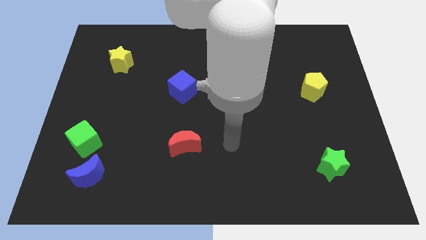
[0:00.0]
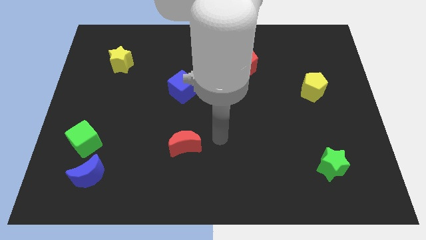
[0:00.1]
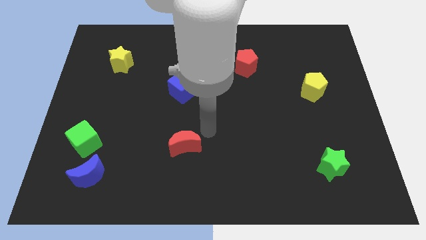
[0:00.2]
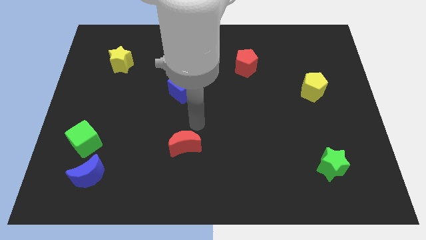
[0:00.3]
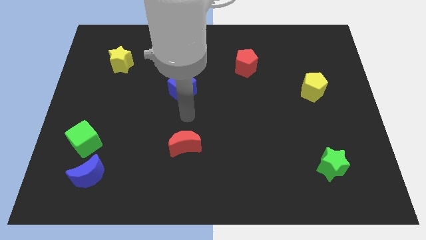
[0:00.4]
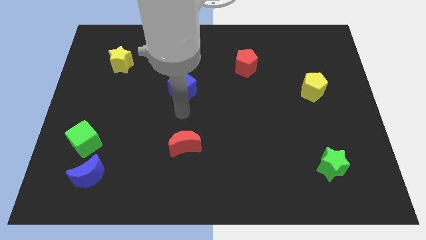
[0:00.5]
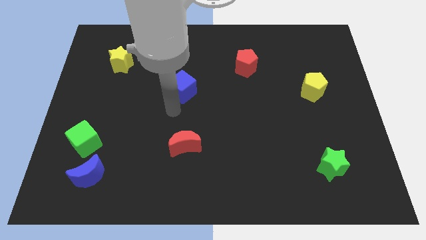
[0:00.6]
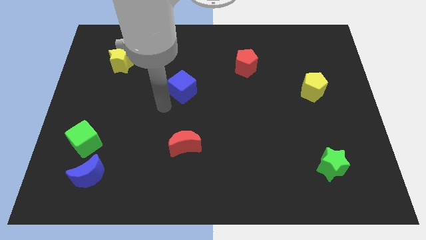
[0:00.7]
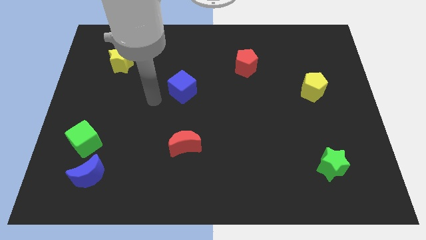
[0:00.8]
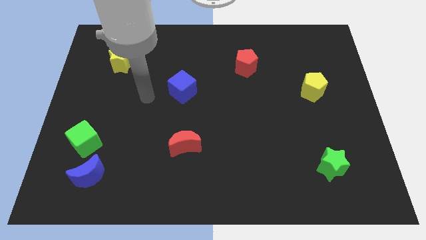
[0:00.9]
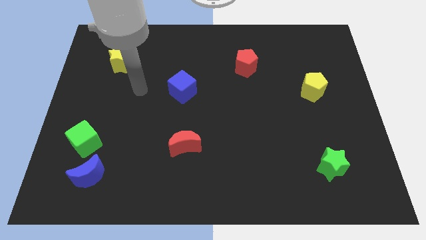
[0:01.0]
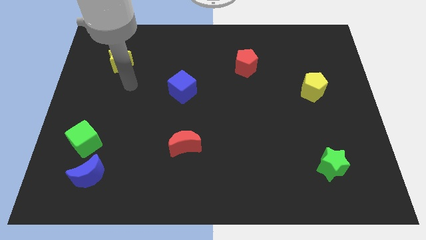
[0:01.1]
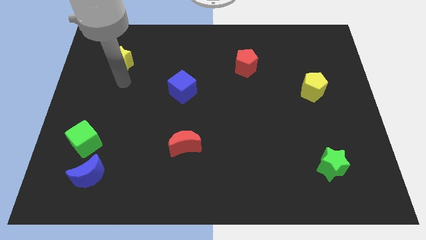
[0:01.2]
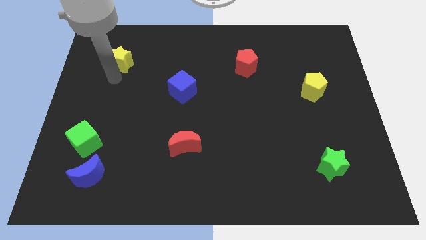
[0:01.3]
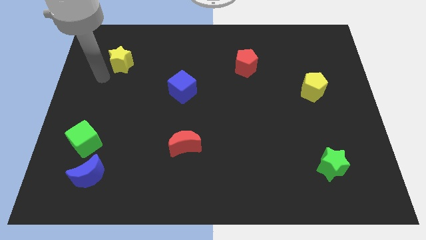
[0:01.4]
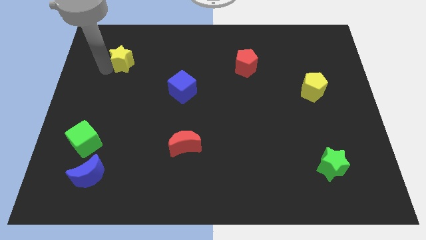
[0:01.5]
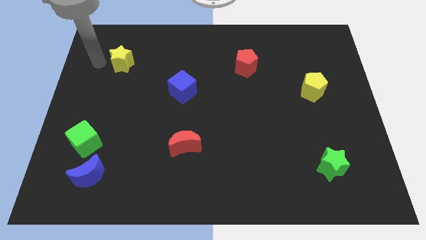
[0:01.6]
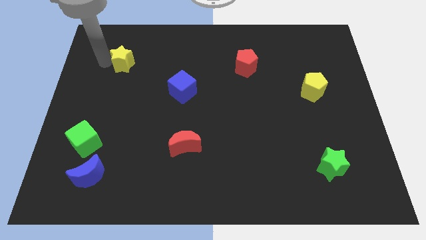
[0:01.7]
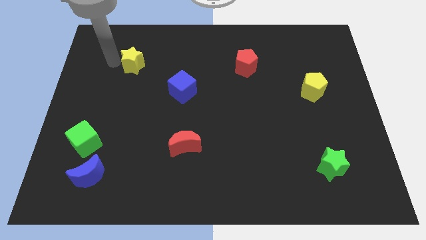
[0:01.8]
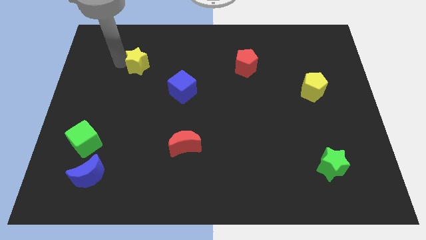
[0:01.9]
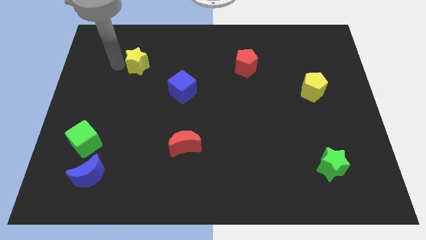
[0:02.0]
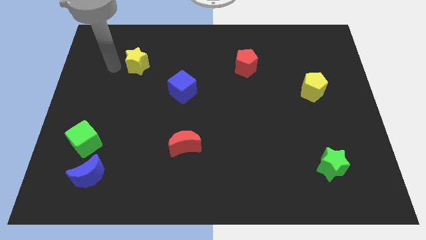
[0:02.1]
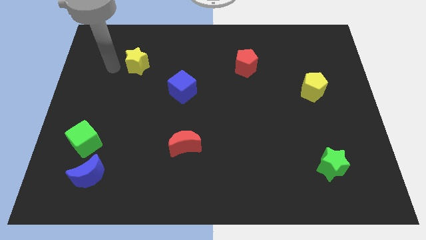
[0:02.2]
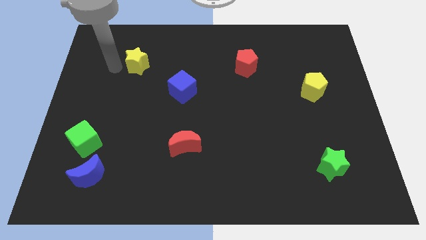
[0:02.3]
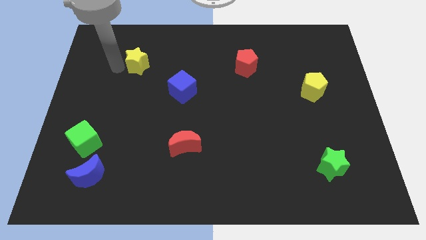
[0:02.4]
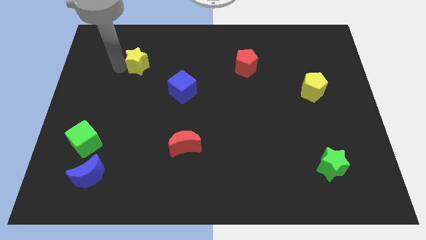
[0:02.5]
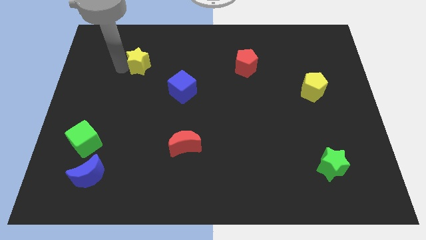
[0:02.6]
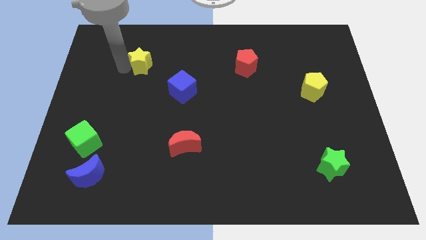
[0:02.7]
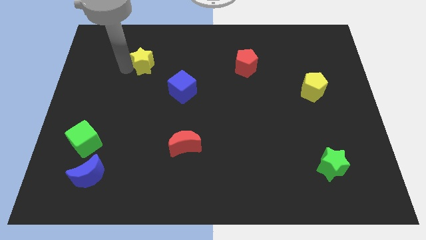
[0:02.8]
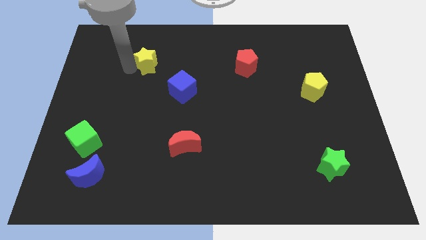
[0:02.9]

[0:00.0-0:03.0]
slightly slide the yellow star to the right

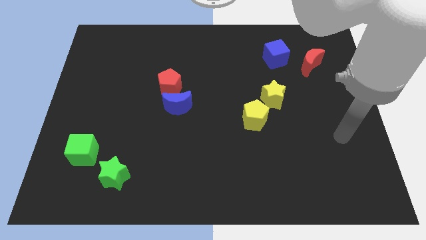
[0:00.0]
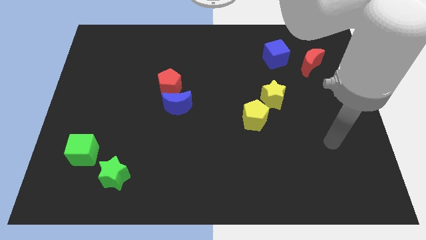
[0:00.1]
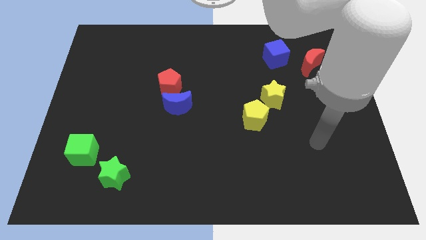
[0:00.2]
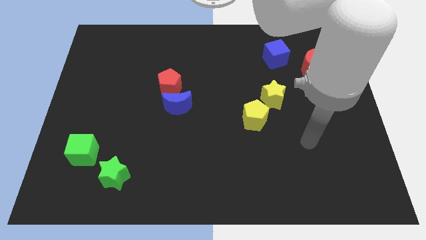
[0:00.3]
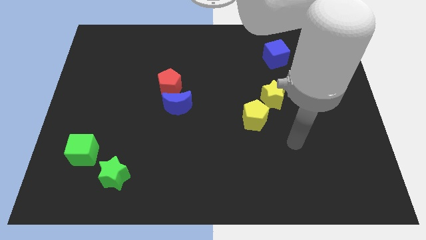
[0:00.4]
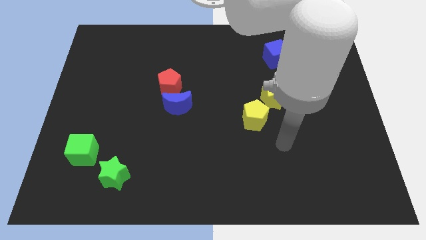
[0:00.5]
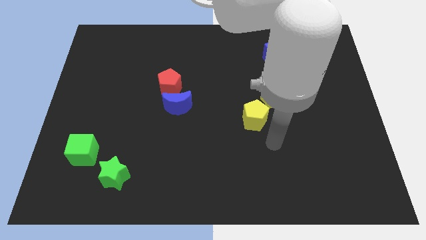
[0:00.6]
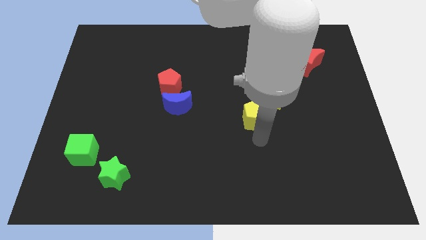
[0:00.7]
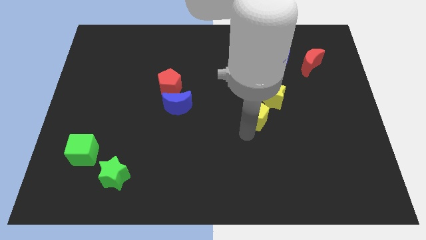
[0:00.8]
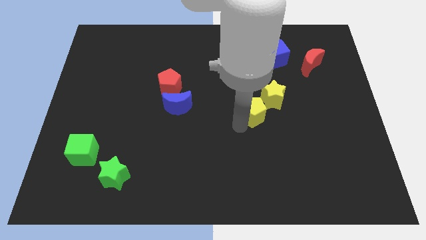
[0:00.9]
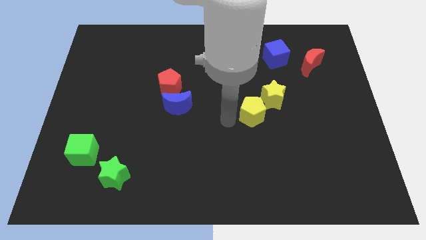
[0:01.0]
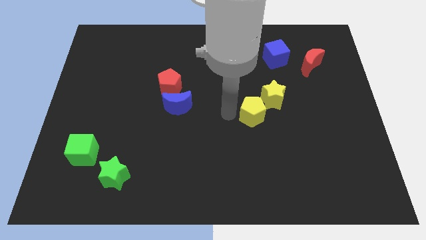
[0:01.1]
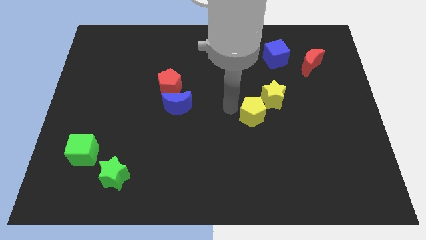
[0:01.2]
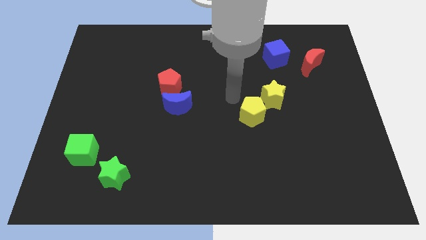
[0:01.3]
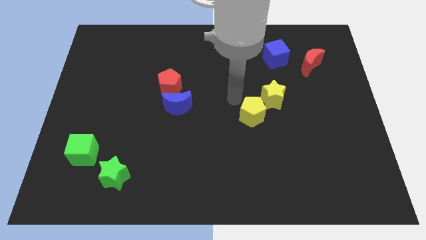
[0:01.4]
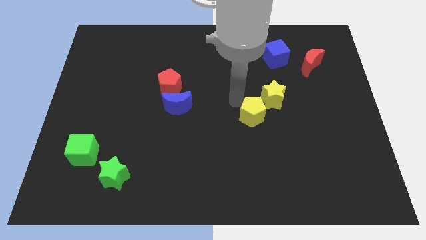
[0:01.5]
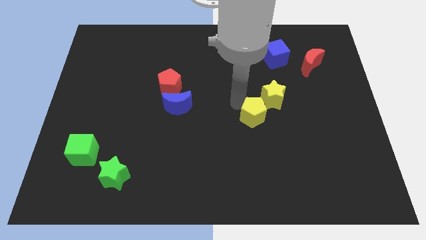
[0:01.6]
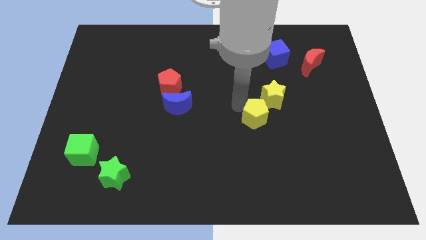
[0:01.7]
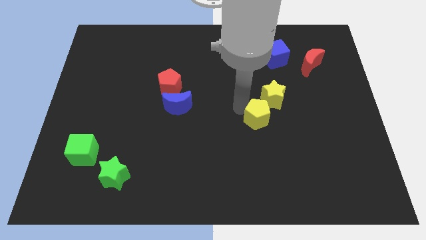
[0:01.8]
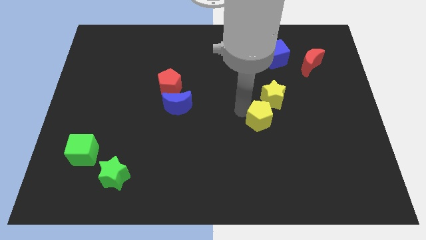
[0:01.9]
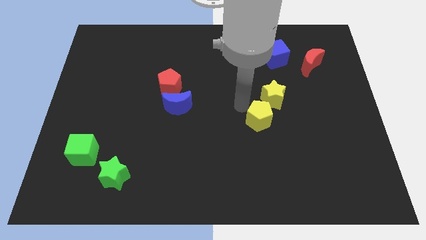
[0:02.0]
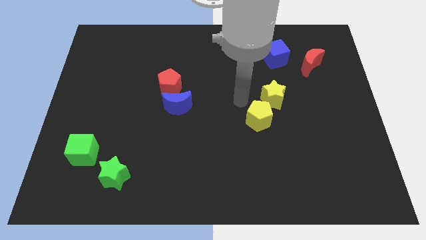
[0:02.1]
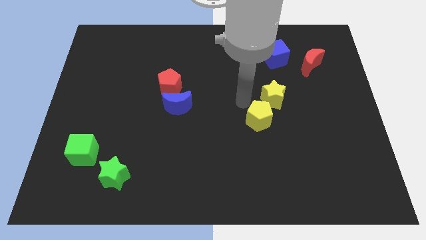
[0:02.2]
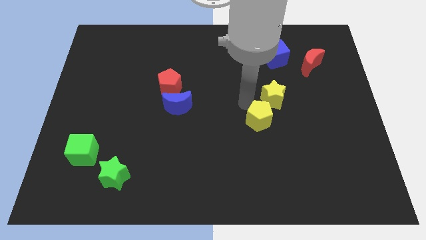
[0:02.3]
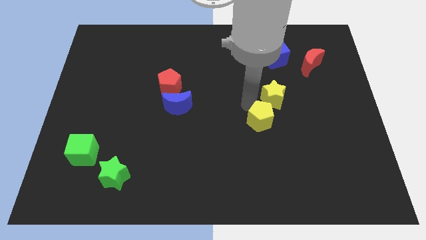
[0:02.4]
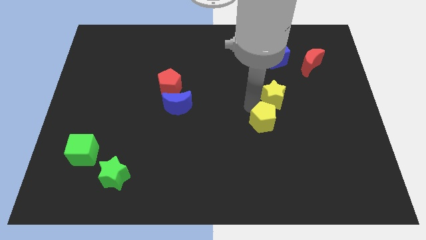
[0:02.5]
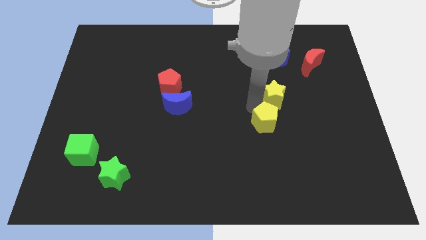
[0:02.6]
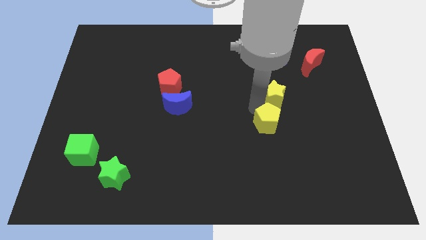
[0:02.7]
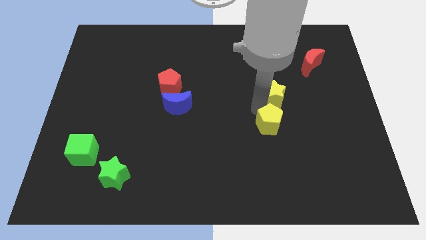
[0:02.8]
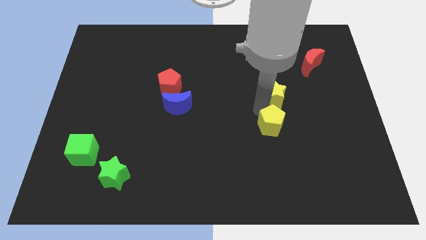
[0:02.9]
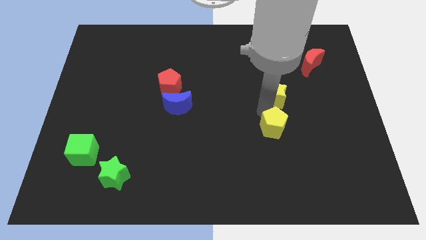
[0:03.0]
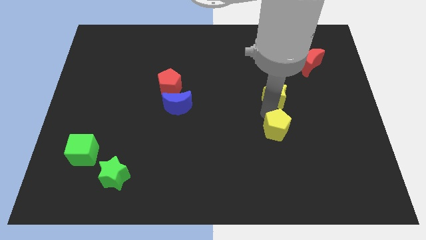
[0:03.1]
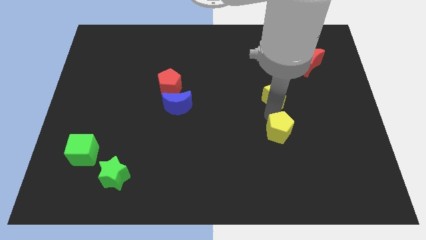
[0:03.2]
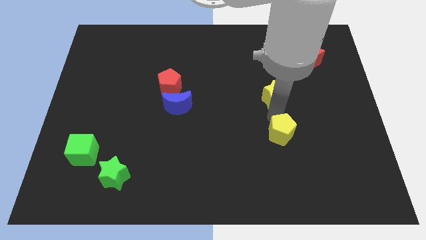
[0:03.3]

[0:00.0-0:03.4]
move the yellow pentagon slightly diagonally down and right

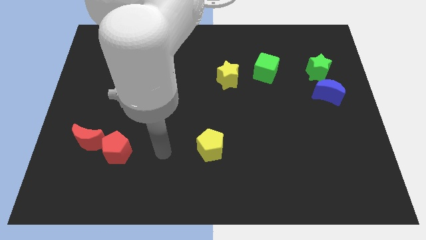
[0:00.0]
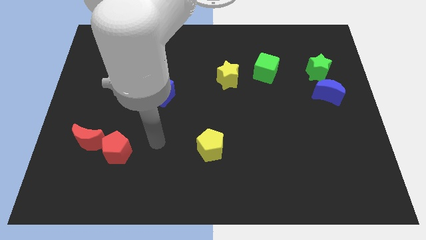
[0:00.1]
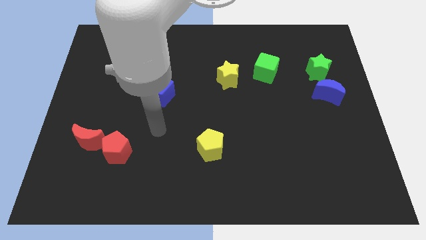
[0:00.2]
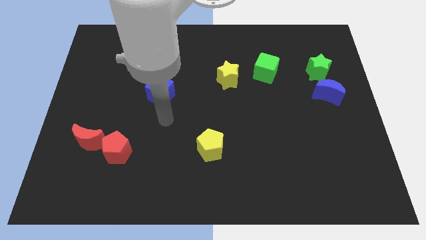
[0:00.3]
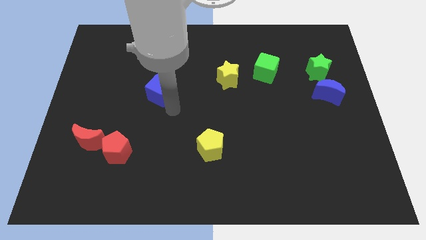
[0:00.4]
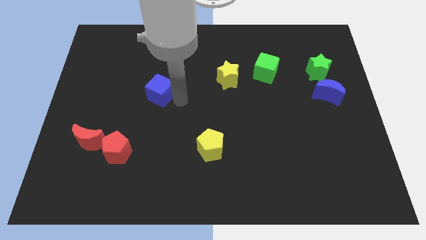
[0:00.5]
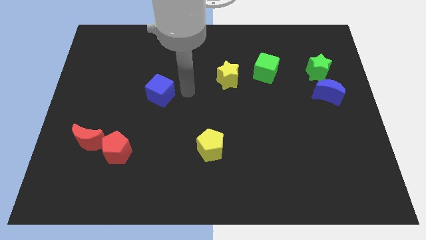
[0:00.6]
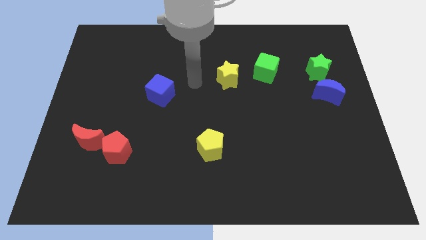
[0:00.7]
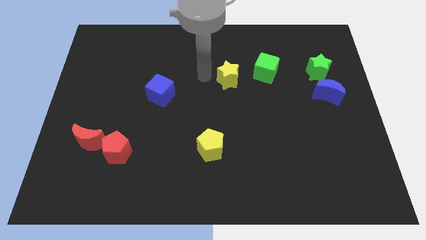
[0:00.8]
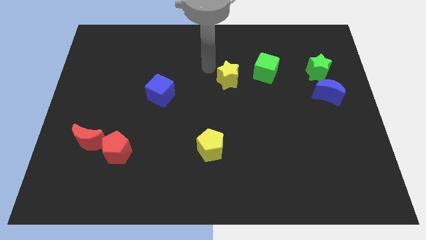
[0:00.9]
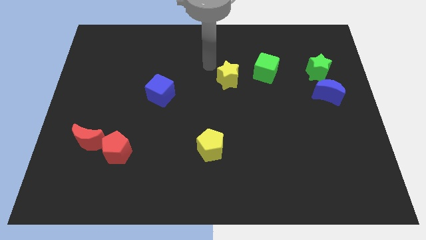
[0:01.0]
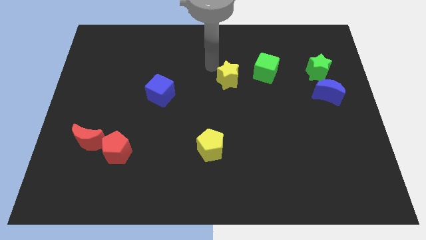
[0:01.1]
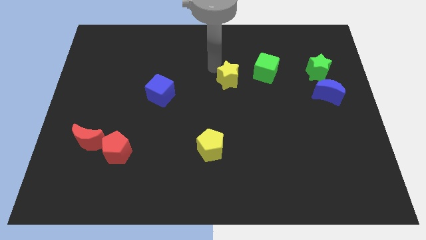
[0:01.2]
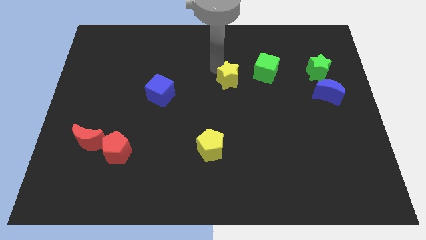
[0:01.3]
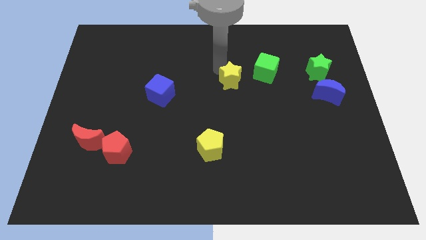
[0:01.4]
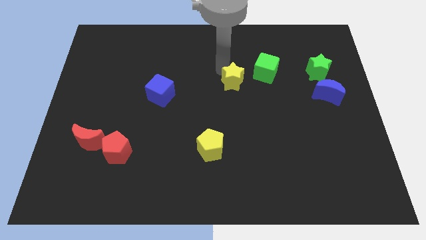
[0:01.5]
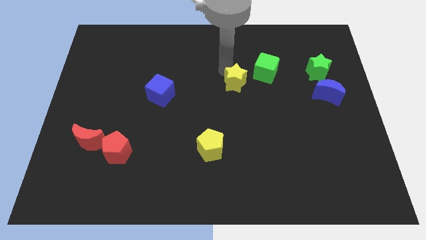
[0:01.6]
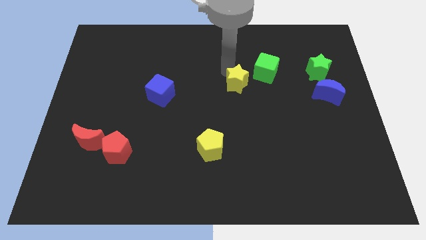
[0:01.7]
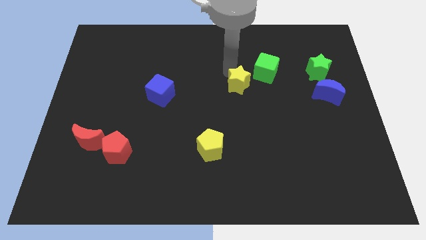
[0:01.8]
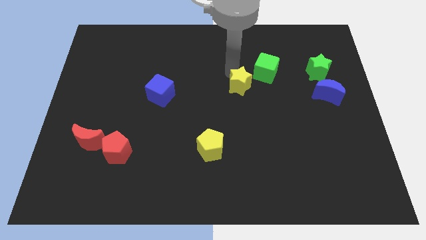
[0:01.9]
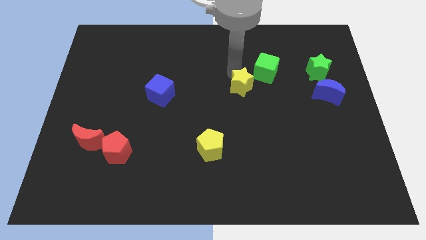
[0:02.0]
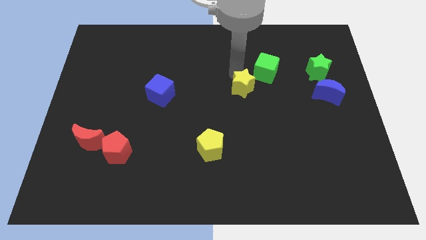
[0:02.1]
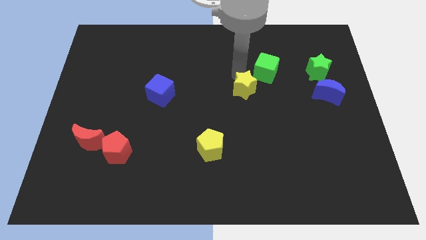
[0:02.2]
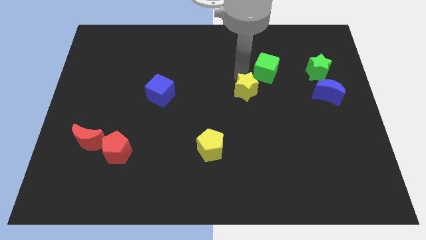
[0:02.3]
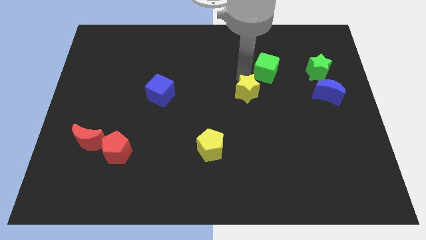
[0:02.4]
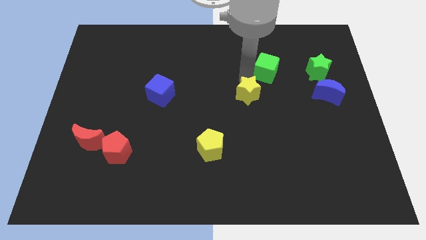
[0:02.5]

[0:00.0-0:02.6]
push the yellow star diagonally down and right a little
